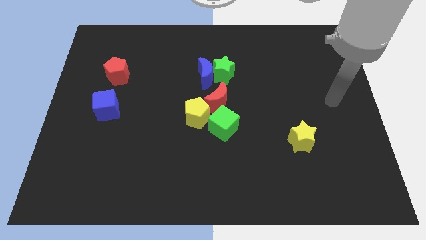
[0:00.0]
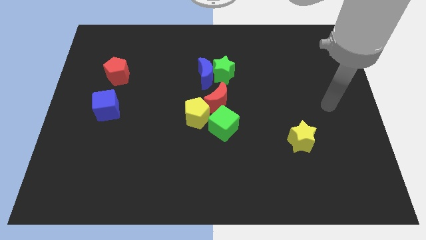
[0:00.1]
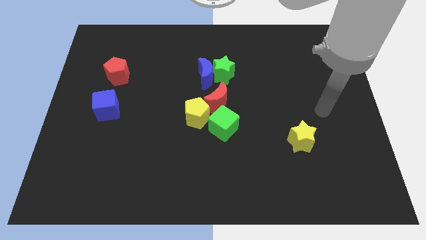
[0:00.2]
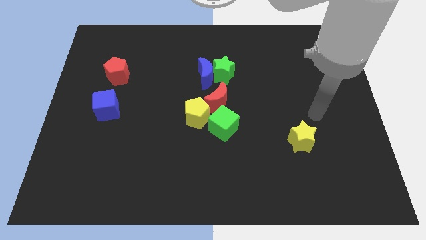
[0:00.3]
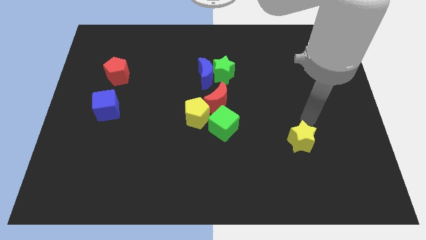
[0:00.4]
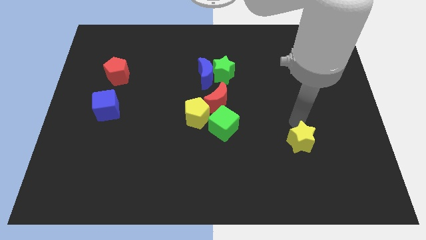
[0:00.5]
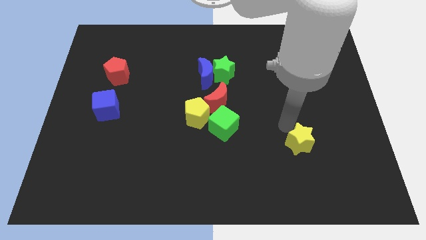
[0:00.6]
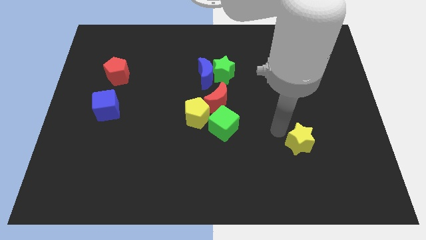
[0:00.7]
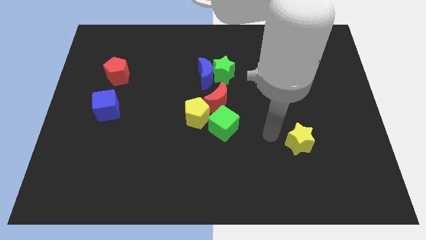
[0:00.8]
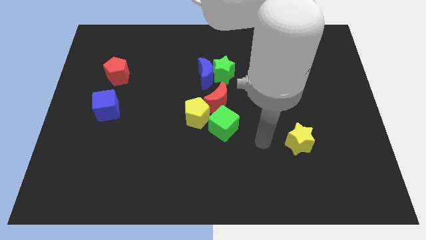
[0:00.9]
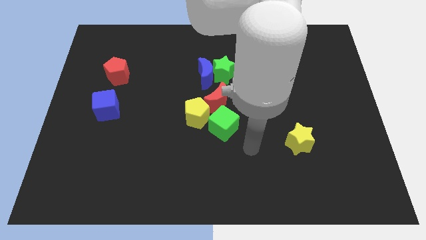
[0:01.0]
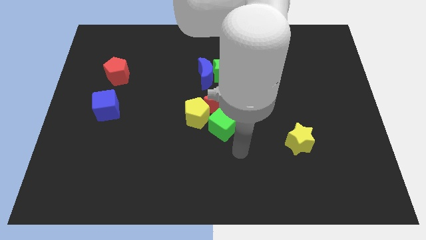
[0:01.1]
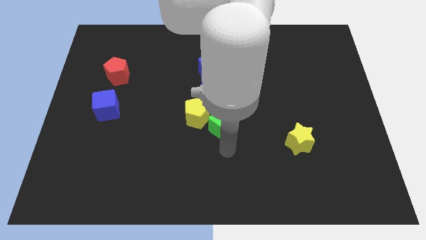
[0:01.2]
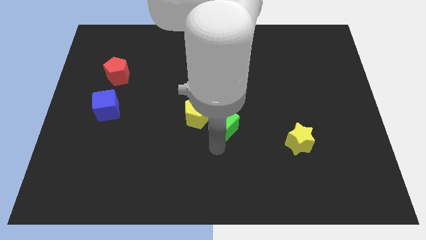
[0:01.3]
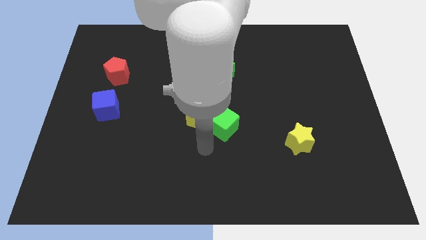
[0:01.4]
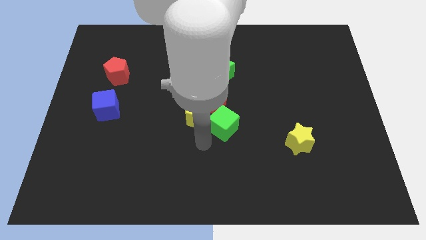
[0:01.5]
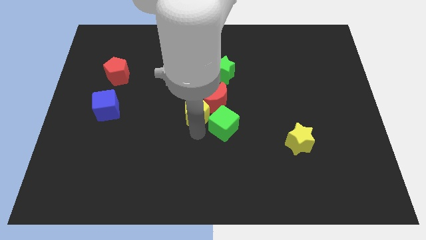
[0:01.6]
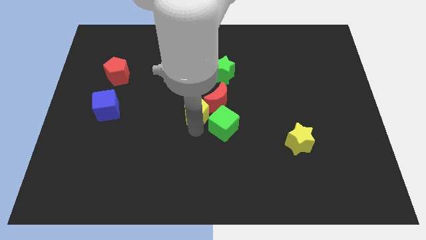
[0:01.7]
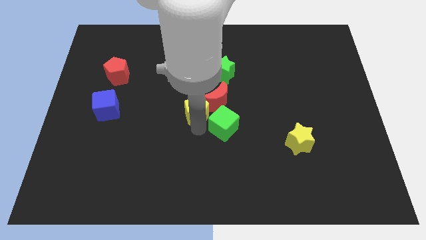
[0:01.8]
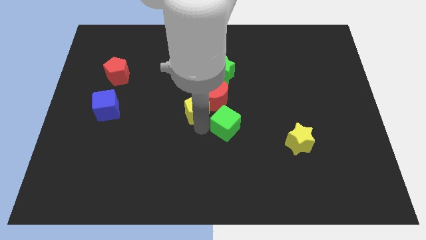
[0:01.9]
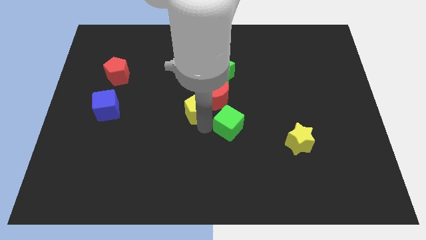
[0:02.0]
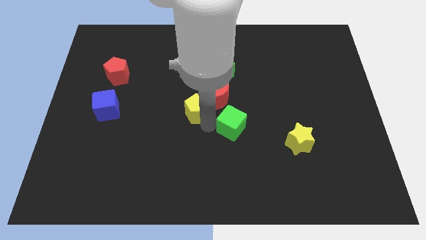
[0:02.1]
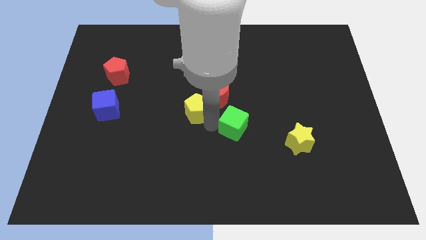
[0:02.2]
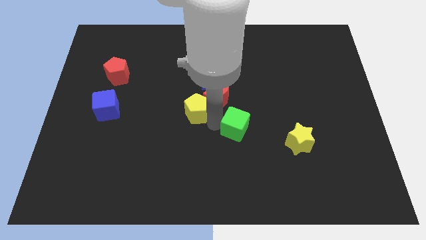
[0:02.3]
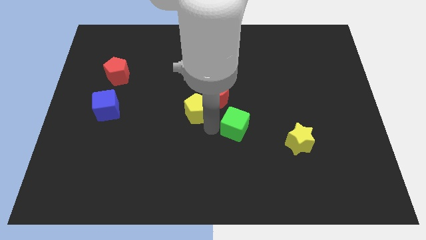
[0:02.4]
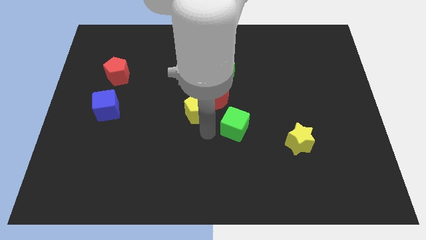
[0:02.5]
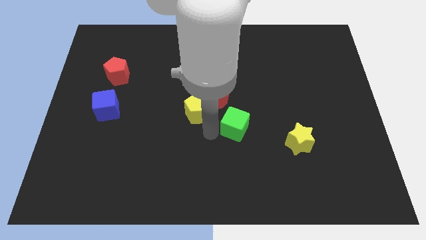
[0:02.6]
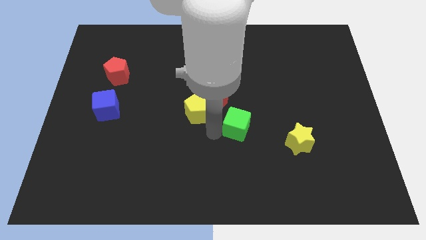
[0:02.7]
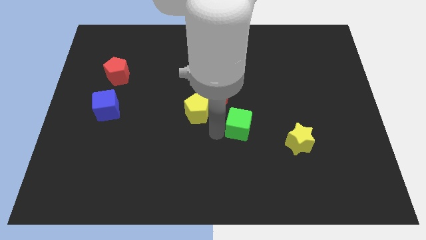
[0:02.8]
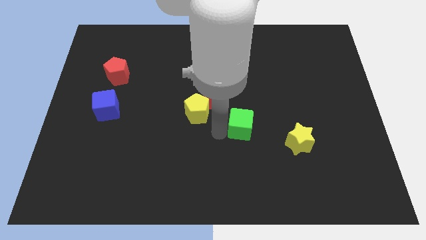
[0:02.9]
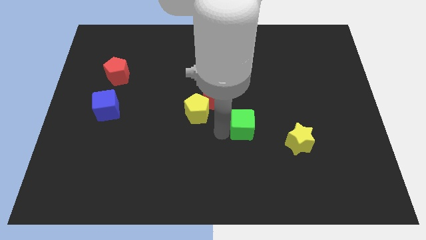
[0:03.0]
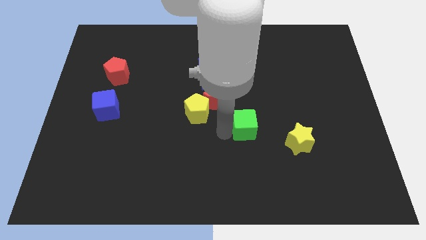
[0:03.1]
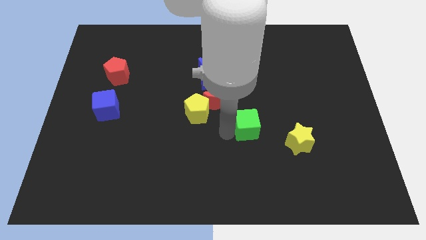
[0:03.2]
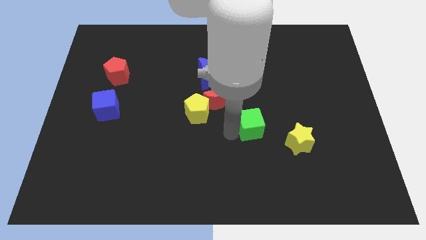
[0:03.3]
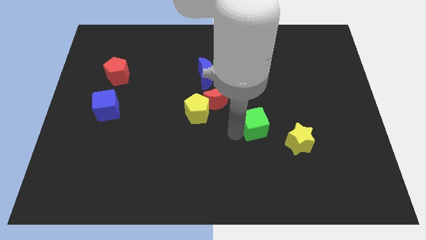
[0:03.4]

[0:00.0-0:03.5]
push the green cube a little bit to the right

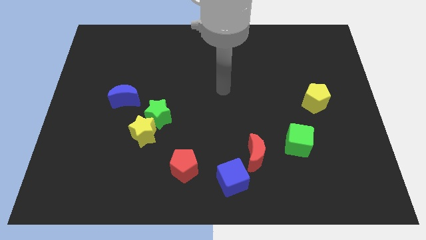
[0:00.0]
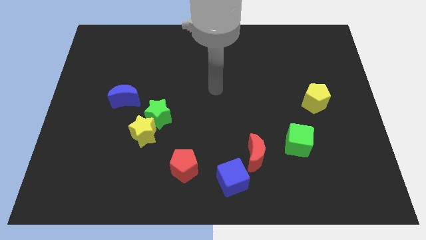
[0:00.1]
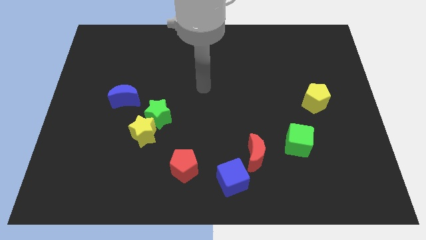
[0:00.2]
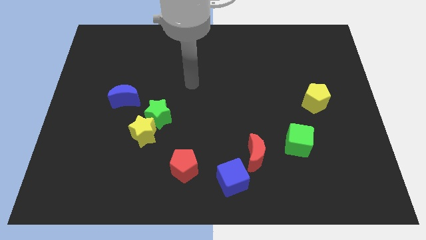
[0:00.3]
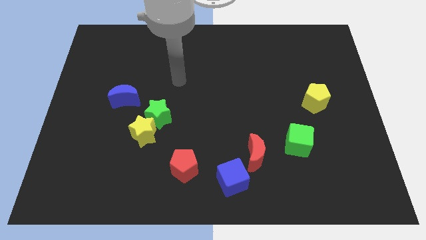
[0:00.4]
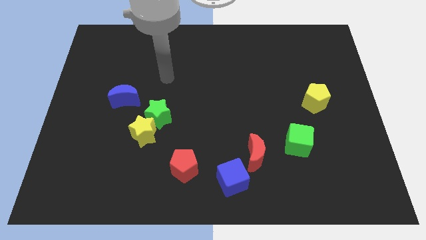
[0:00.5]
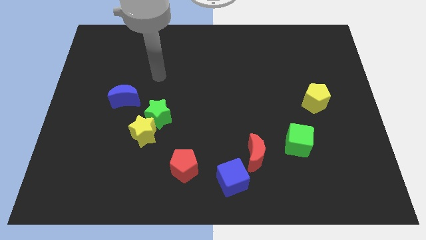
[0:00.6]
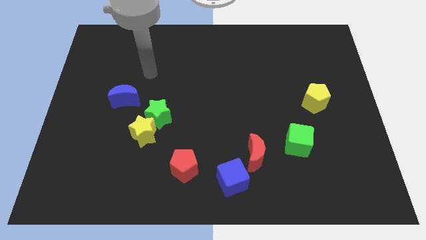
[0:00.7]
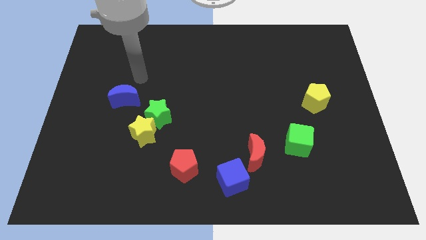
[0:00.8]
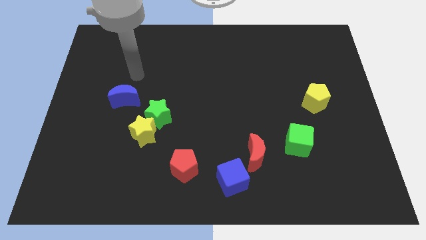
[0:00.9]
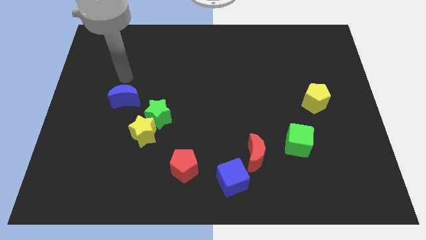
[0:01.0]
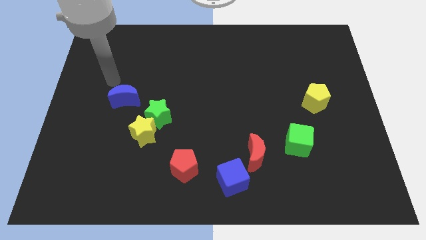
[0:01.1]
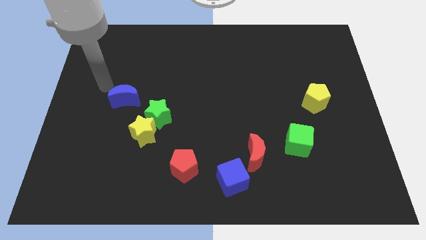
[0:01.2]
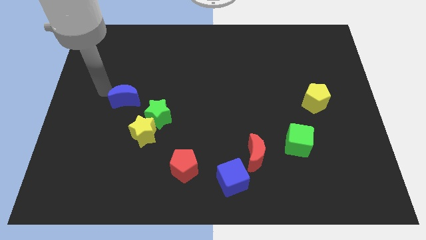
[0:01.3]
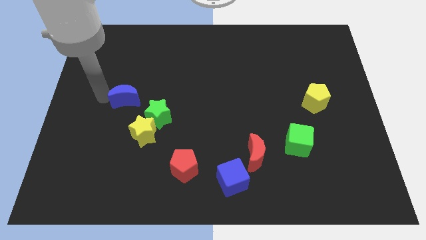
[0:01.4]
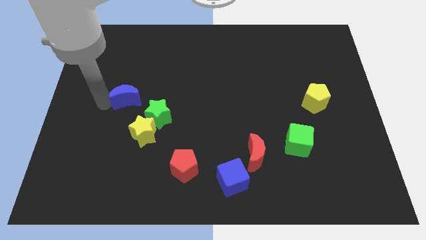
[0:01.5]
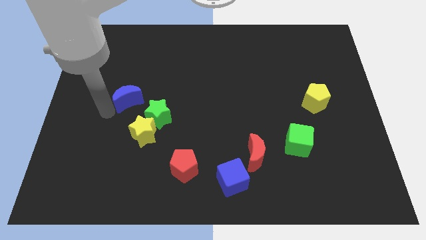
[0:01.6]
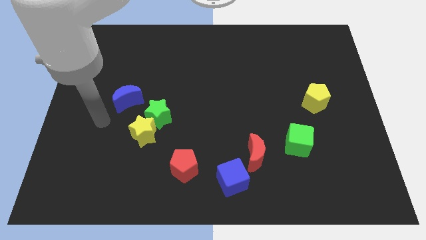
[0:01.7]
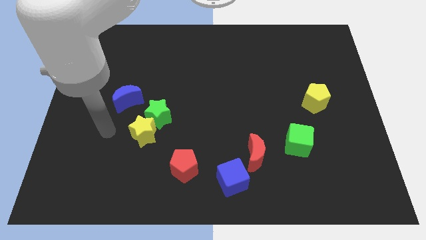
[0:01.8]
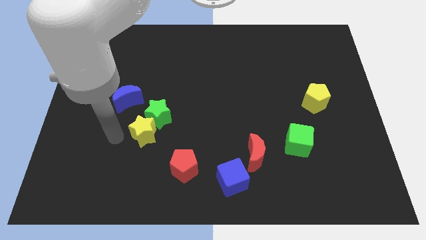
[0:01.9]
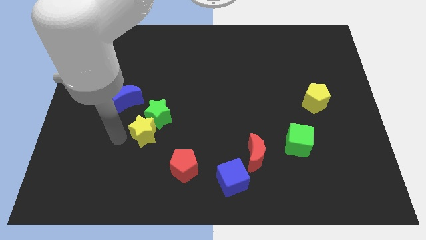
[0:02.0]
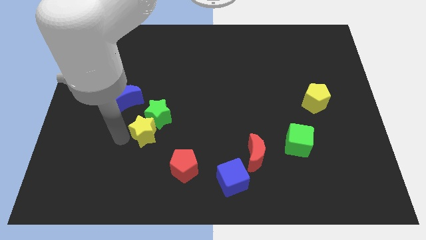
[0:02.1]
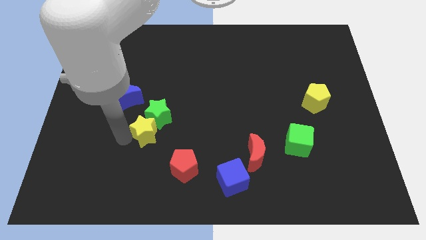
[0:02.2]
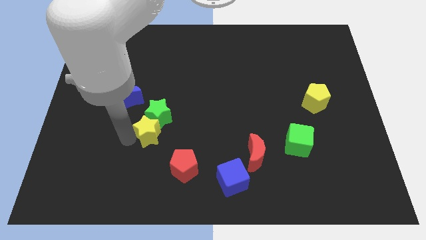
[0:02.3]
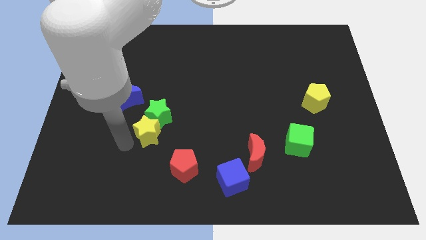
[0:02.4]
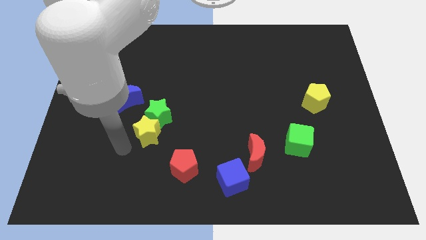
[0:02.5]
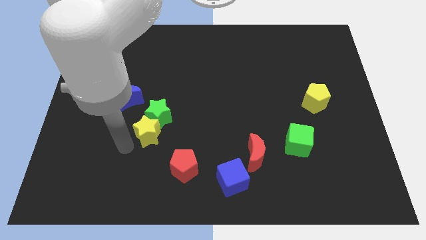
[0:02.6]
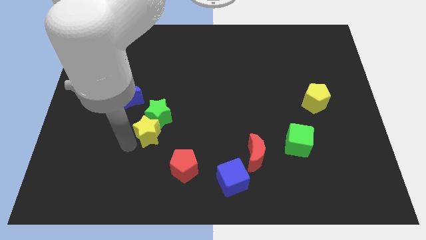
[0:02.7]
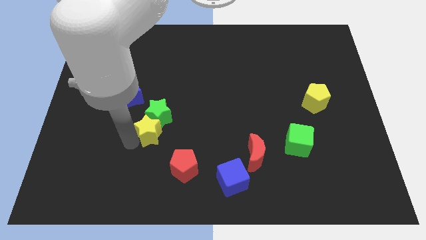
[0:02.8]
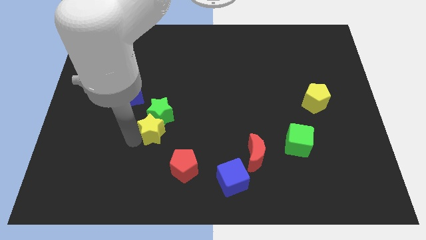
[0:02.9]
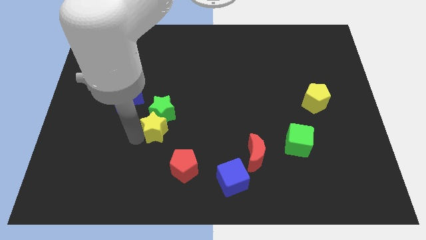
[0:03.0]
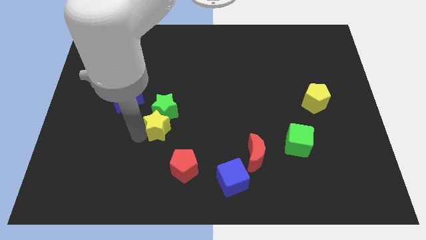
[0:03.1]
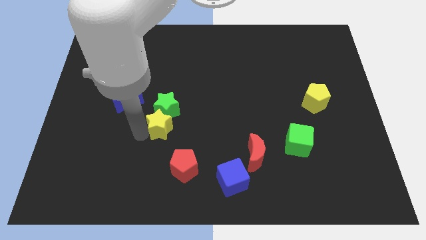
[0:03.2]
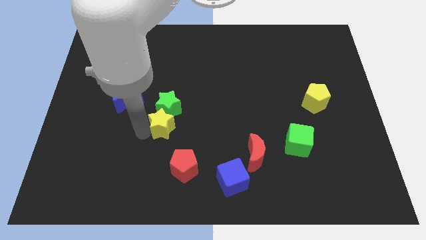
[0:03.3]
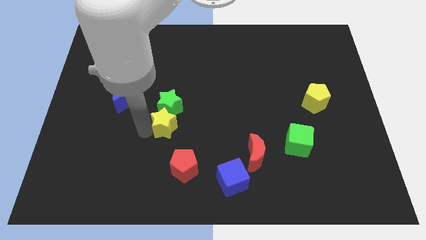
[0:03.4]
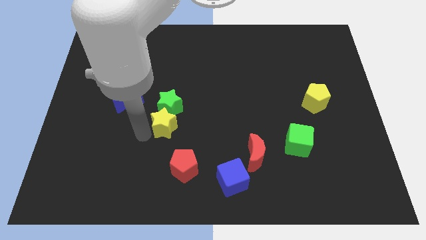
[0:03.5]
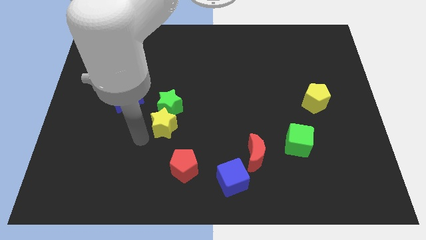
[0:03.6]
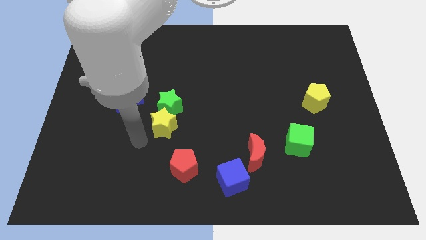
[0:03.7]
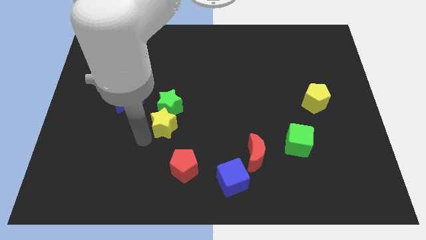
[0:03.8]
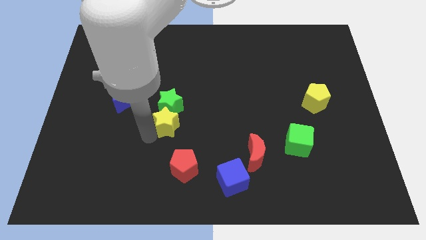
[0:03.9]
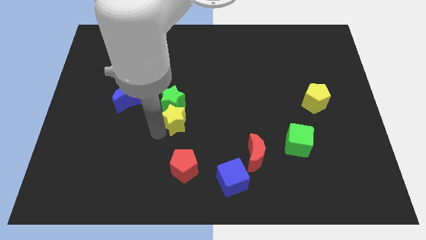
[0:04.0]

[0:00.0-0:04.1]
slide the yellow star slightly up and right

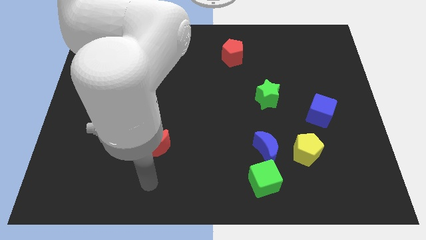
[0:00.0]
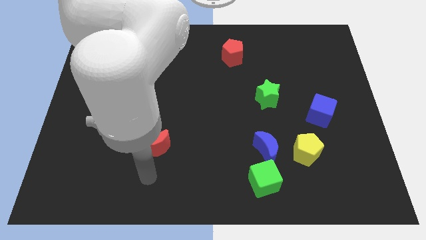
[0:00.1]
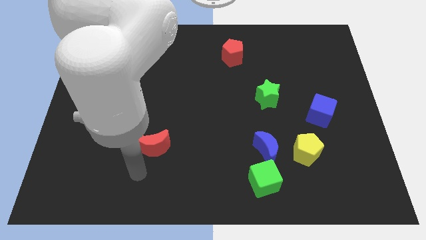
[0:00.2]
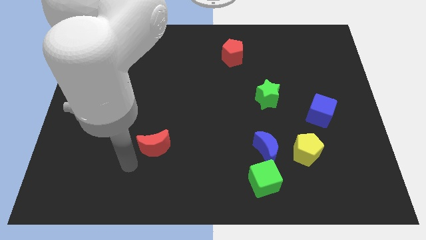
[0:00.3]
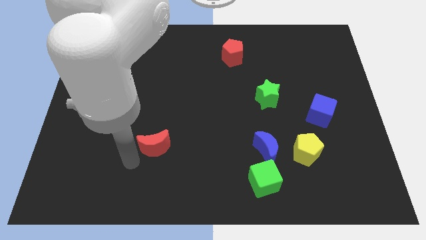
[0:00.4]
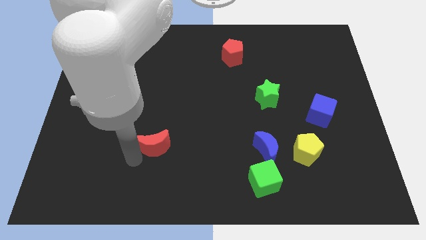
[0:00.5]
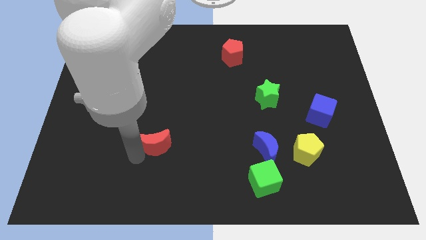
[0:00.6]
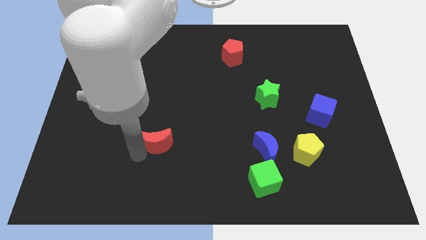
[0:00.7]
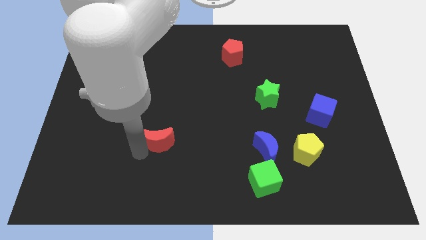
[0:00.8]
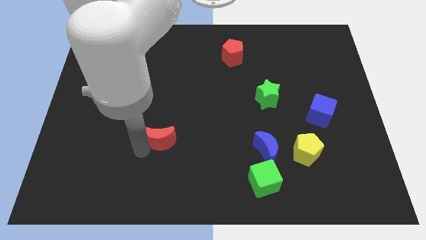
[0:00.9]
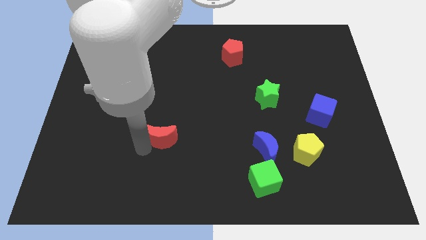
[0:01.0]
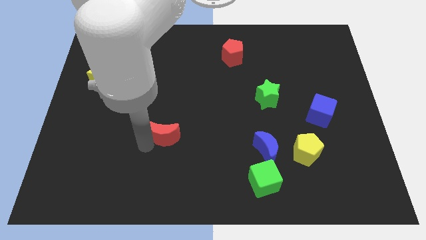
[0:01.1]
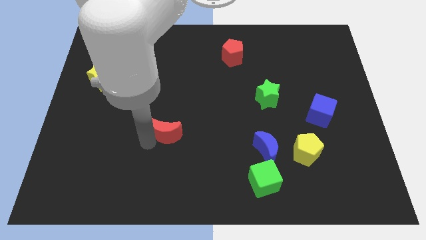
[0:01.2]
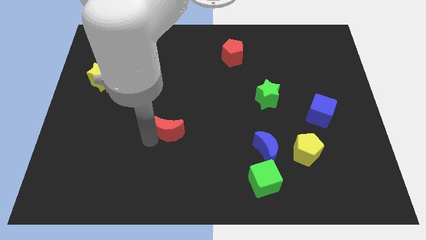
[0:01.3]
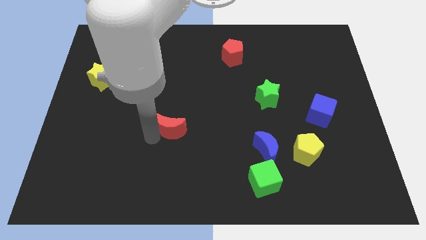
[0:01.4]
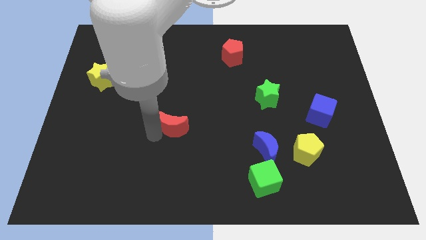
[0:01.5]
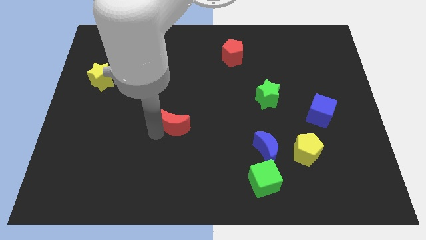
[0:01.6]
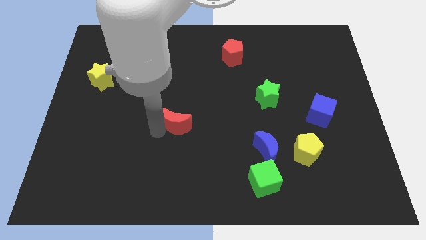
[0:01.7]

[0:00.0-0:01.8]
move the red moon diagonally up and to the right somewhat
